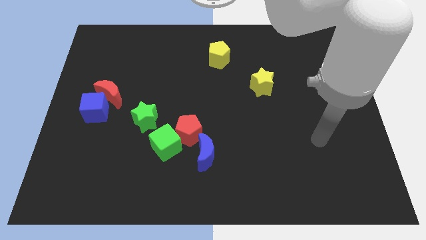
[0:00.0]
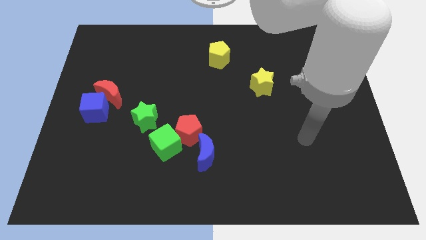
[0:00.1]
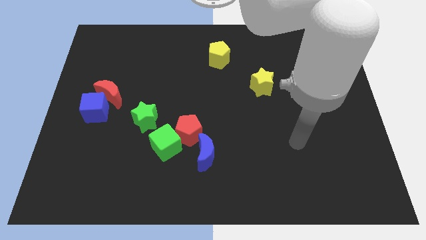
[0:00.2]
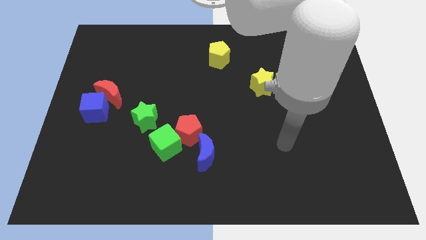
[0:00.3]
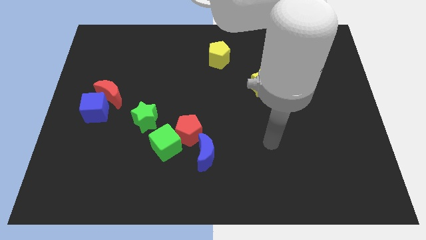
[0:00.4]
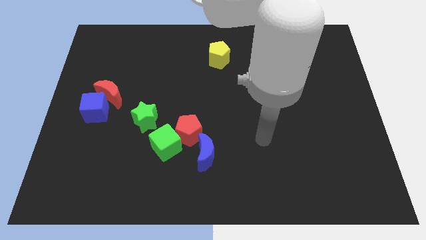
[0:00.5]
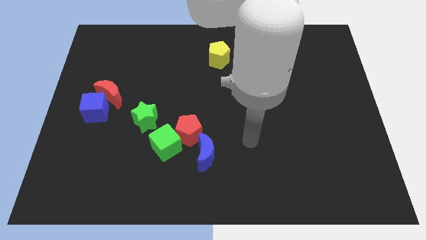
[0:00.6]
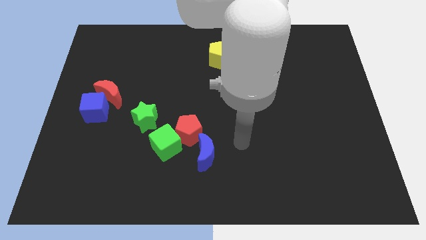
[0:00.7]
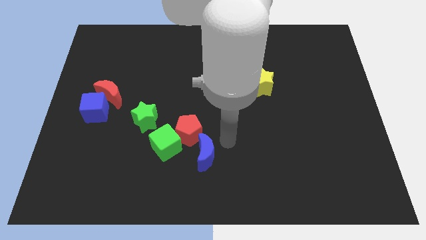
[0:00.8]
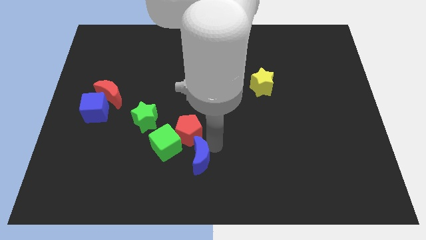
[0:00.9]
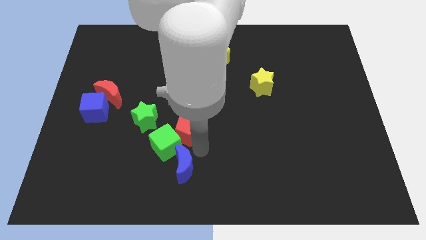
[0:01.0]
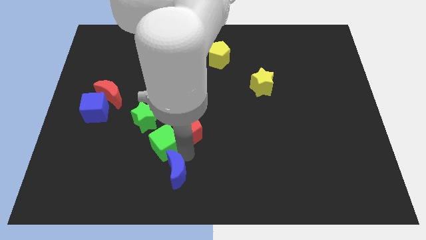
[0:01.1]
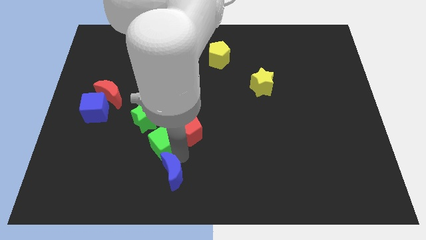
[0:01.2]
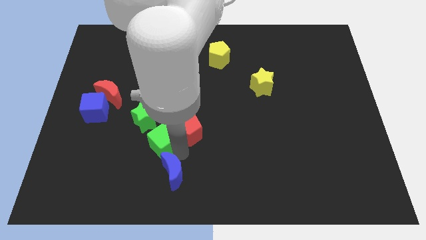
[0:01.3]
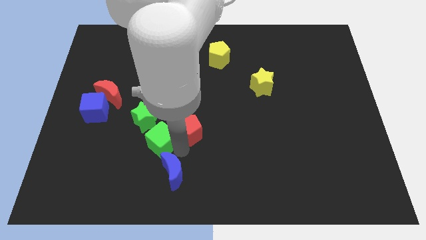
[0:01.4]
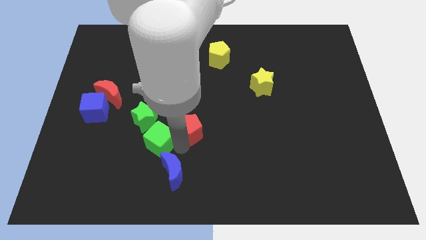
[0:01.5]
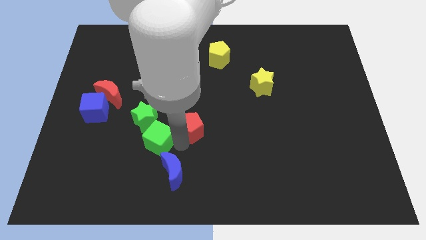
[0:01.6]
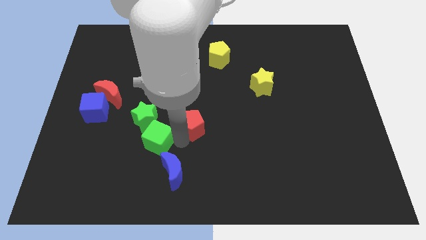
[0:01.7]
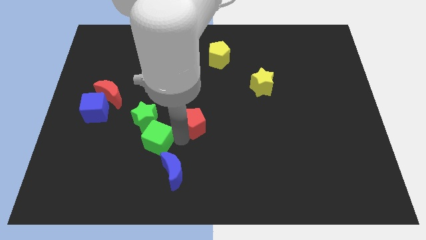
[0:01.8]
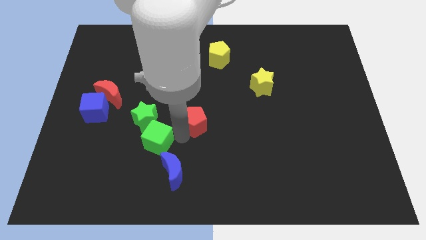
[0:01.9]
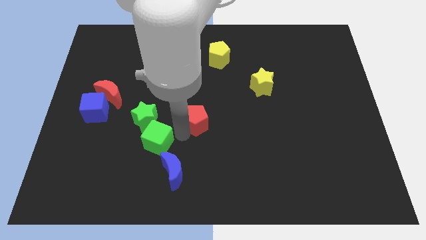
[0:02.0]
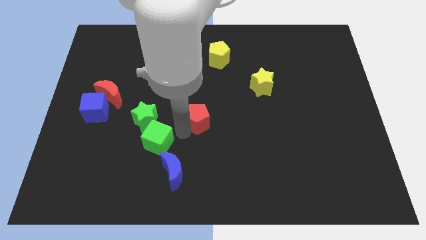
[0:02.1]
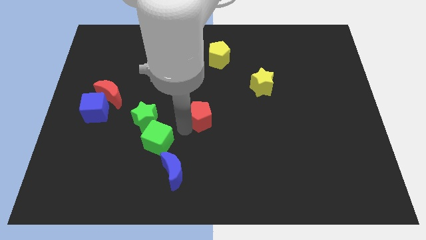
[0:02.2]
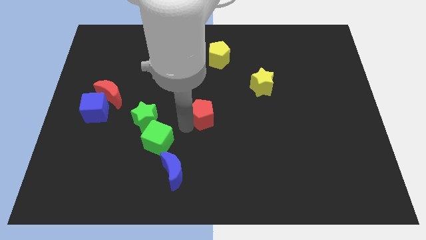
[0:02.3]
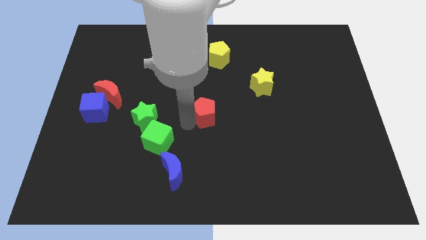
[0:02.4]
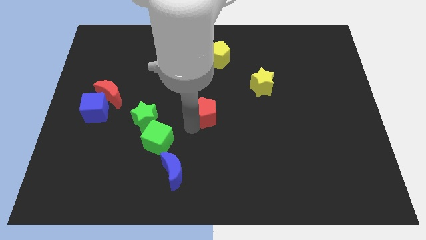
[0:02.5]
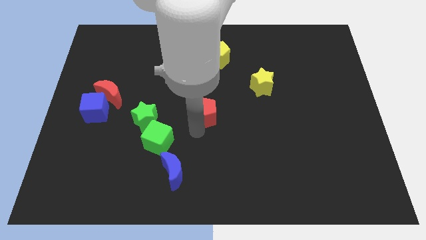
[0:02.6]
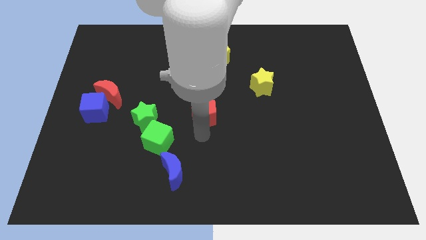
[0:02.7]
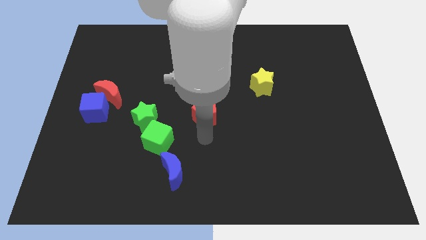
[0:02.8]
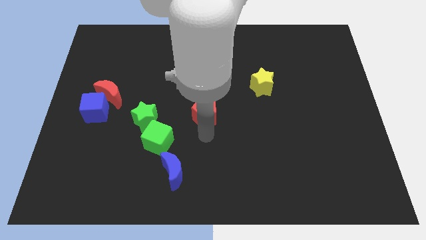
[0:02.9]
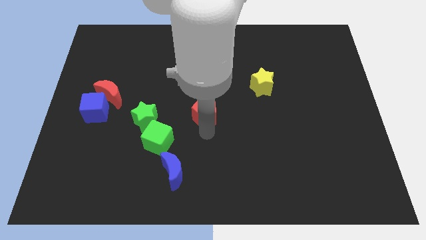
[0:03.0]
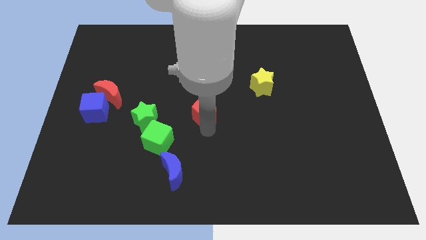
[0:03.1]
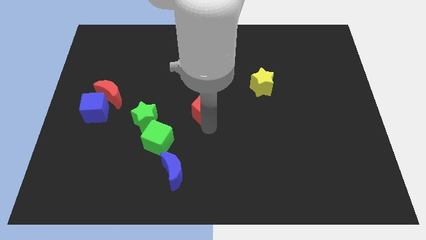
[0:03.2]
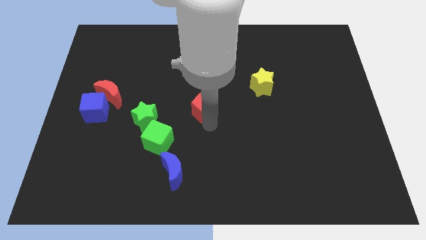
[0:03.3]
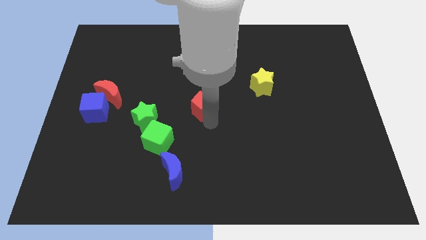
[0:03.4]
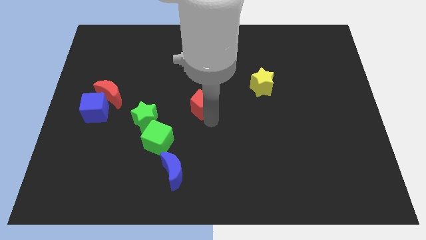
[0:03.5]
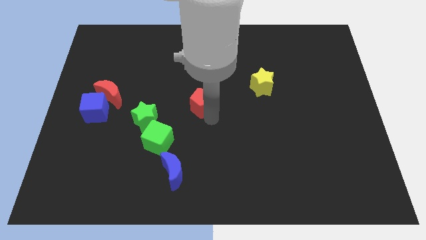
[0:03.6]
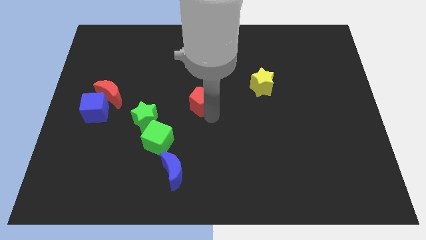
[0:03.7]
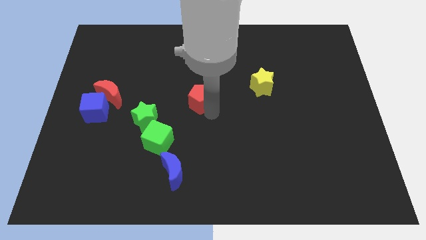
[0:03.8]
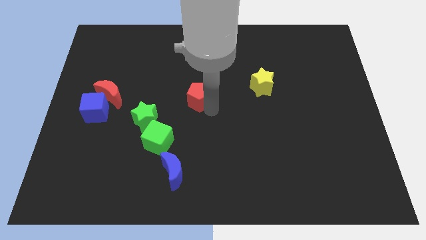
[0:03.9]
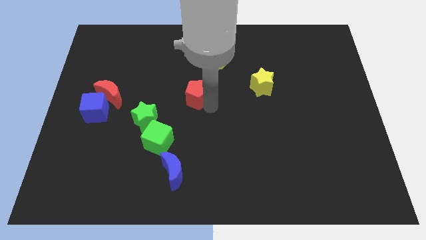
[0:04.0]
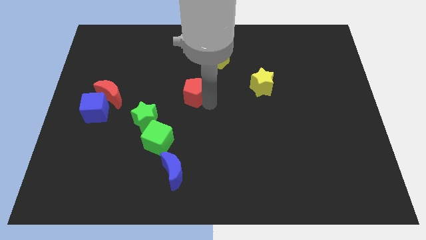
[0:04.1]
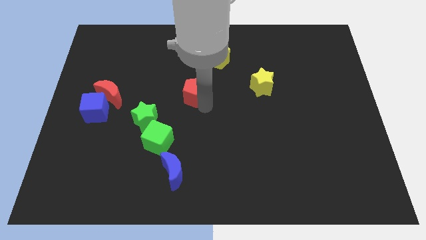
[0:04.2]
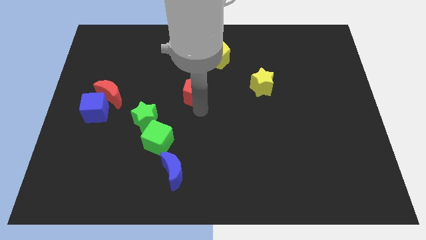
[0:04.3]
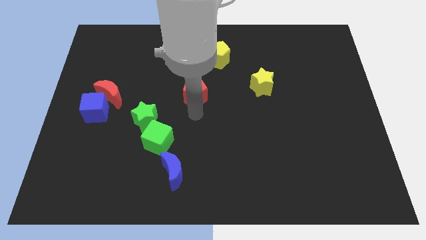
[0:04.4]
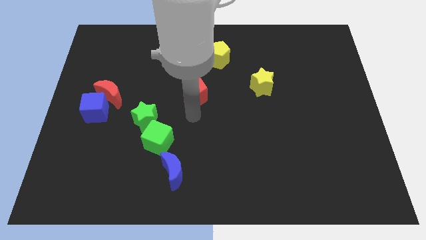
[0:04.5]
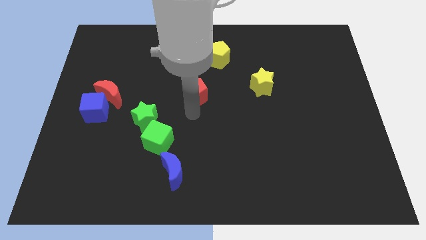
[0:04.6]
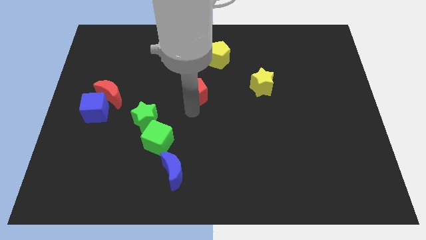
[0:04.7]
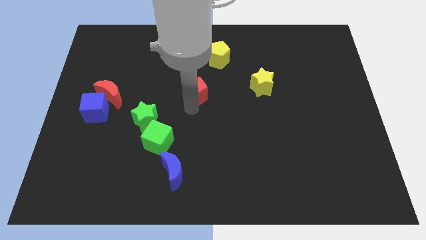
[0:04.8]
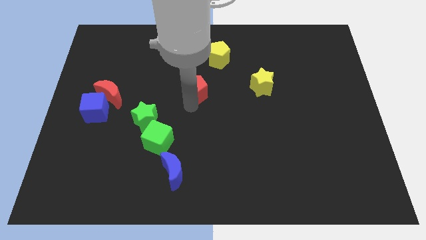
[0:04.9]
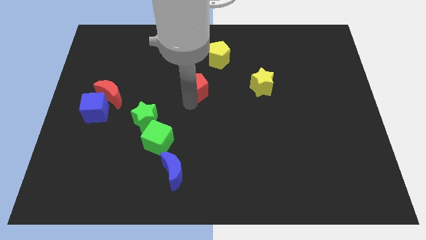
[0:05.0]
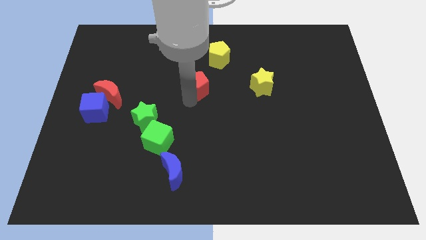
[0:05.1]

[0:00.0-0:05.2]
push the red pentagon diagonally down and to the left of the yellow pentagon

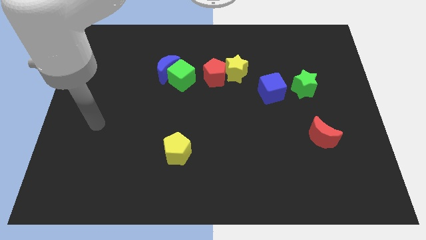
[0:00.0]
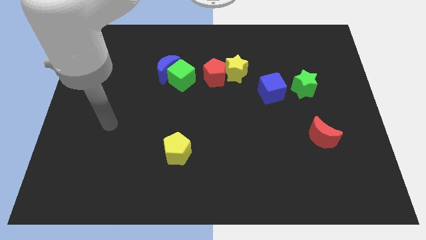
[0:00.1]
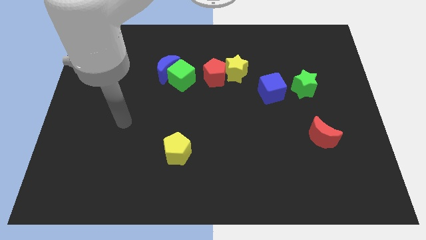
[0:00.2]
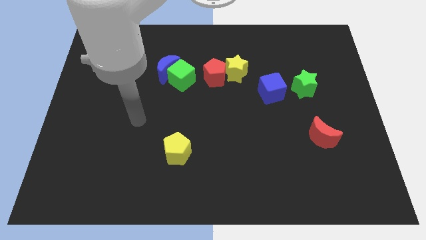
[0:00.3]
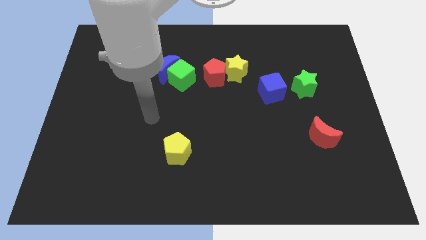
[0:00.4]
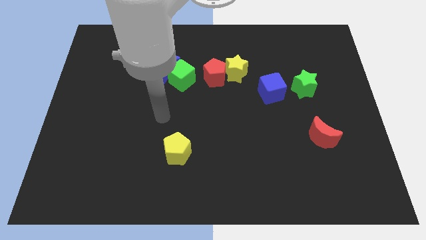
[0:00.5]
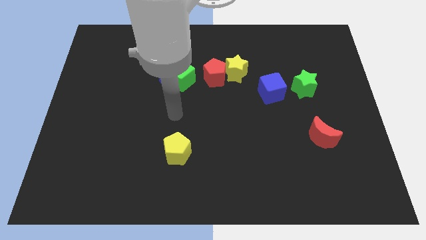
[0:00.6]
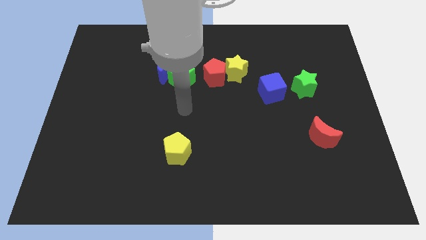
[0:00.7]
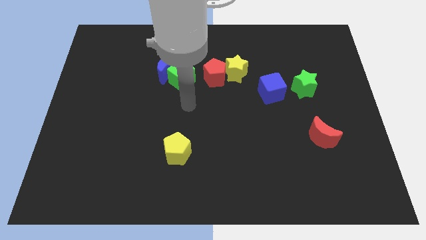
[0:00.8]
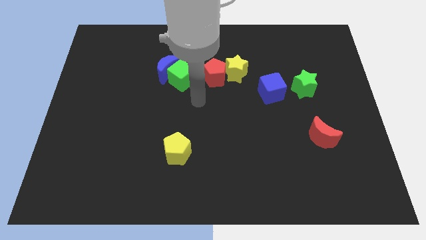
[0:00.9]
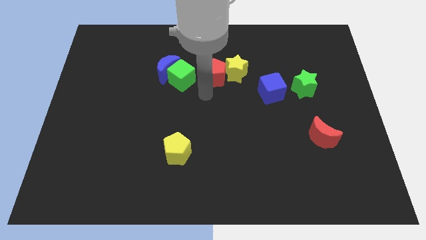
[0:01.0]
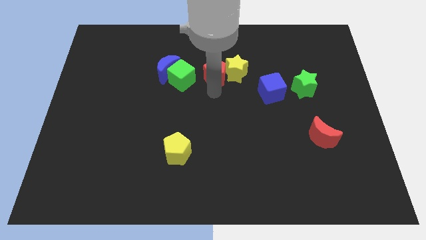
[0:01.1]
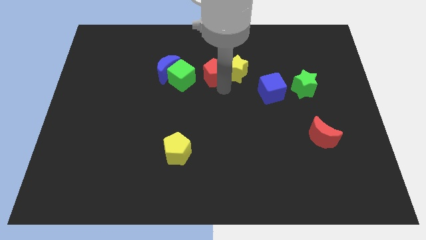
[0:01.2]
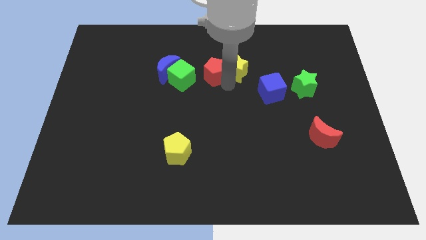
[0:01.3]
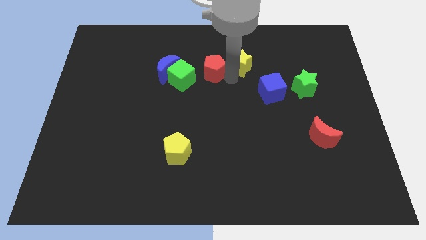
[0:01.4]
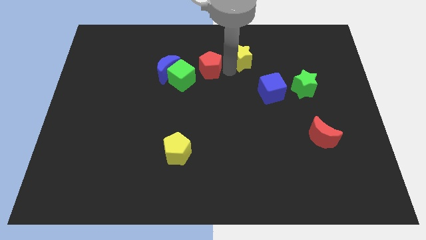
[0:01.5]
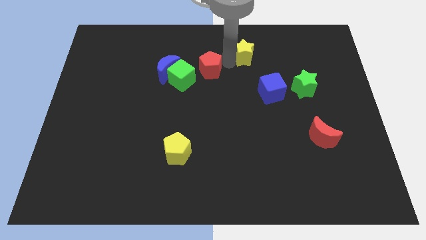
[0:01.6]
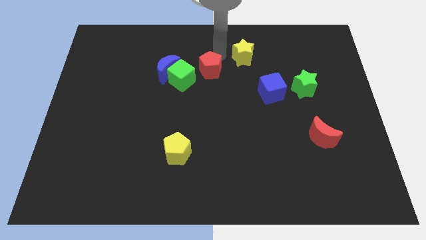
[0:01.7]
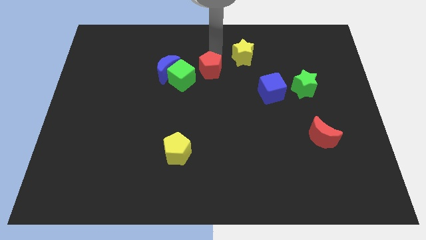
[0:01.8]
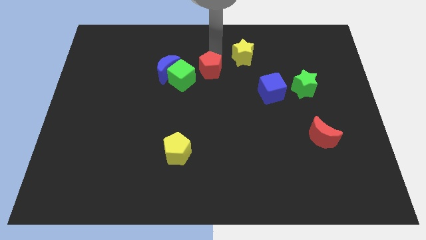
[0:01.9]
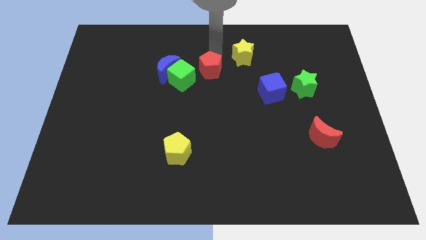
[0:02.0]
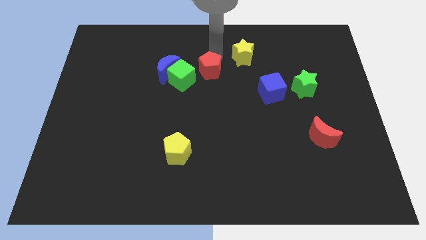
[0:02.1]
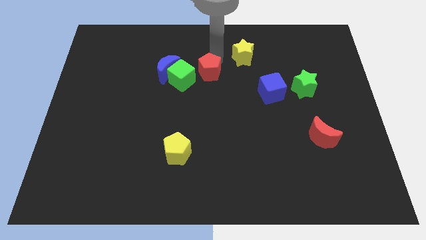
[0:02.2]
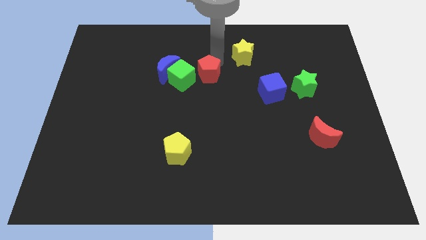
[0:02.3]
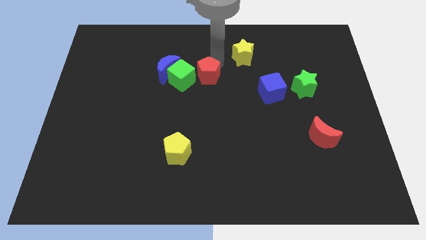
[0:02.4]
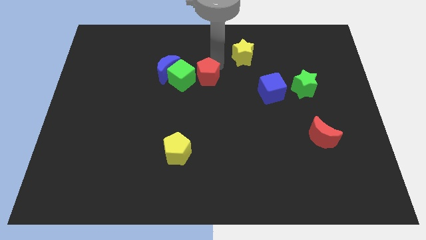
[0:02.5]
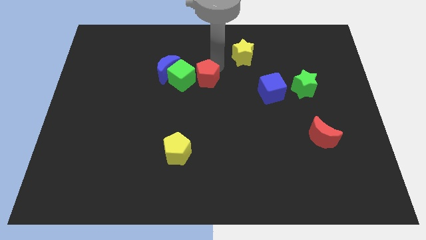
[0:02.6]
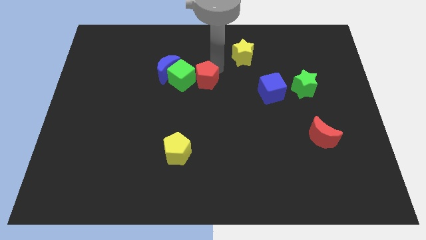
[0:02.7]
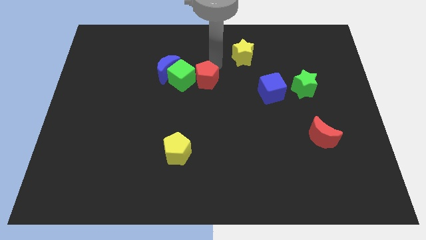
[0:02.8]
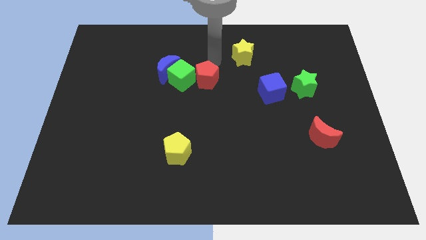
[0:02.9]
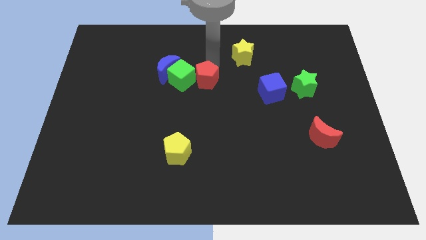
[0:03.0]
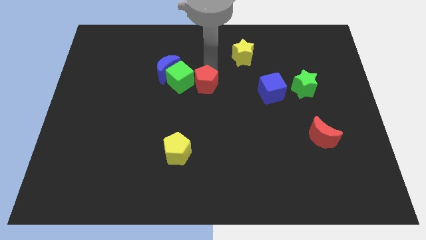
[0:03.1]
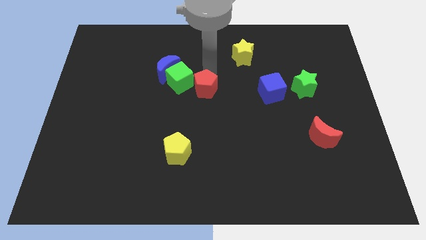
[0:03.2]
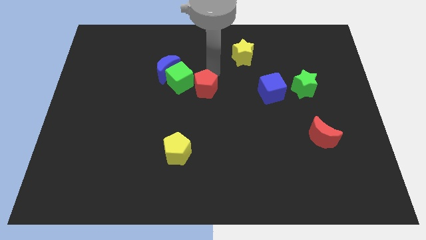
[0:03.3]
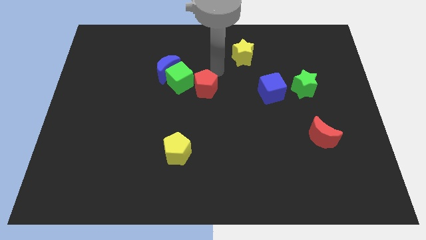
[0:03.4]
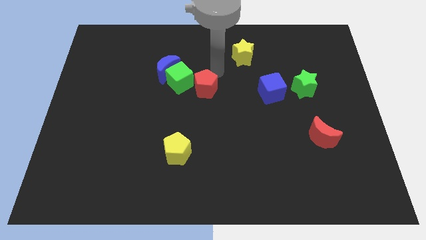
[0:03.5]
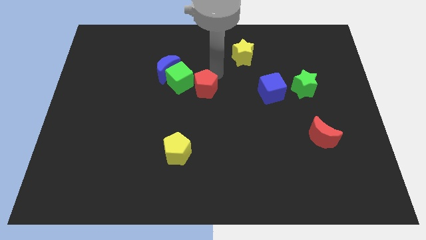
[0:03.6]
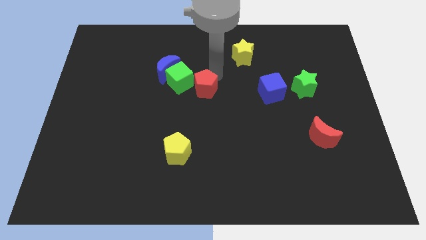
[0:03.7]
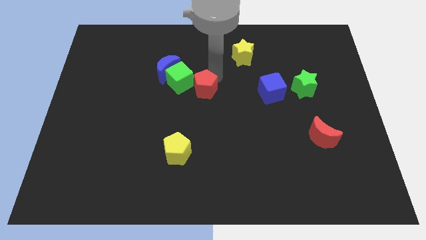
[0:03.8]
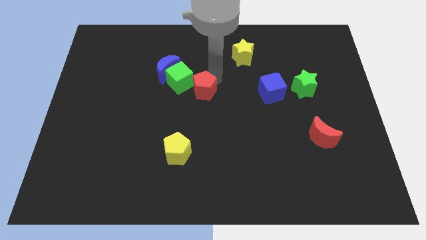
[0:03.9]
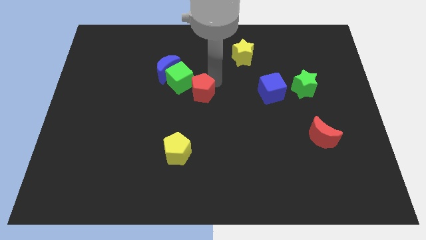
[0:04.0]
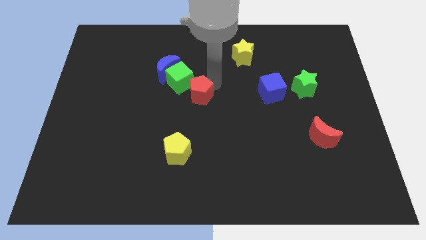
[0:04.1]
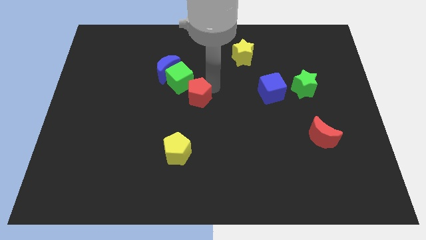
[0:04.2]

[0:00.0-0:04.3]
put the red pentagon to the bottom of the green cube
